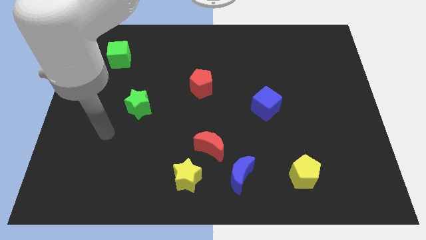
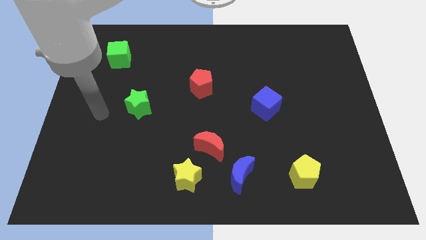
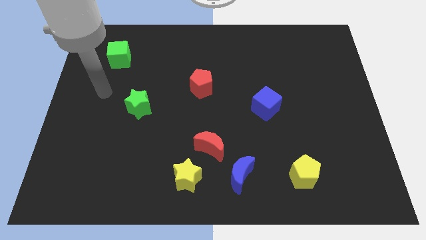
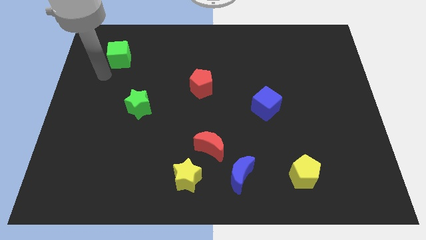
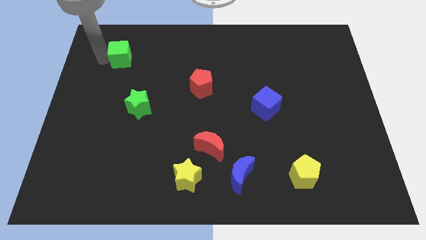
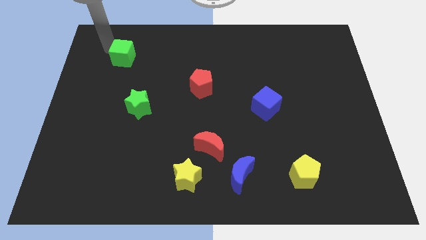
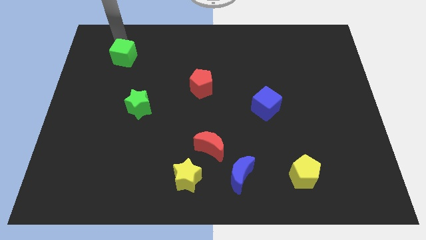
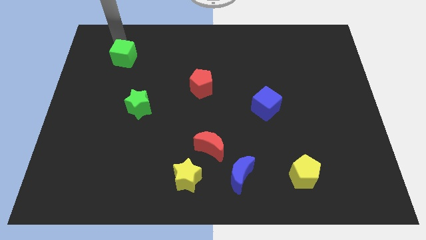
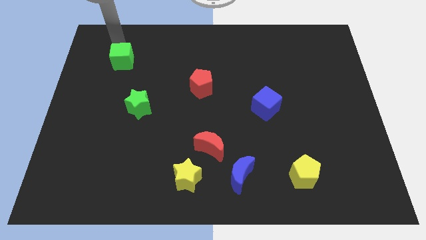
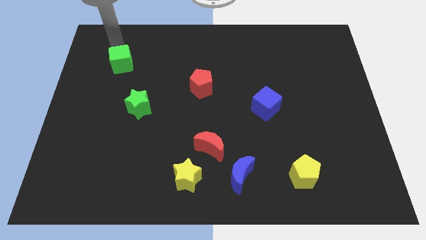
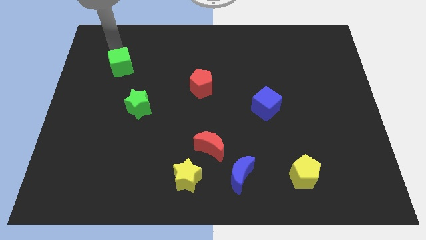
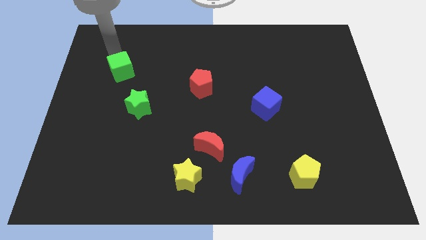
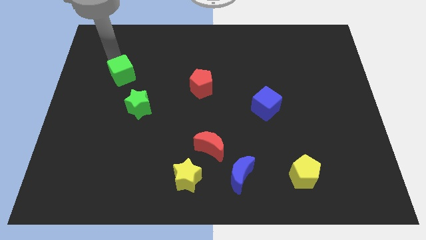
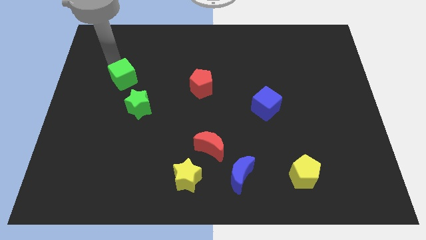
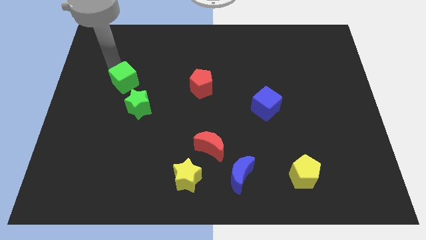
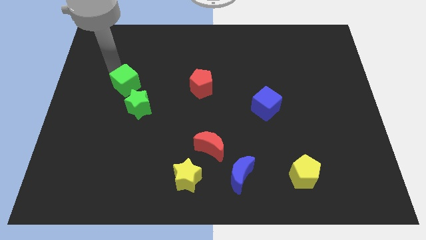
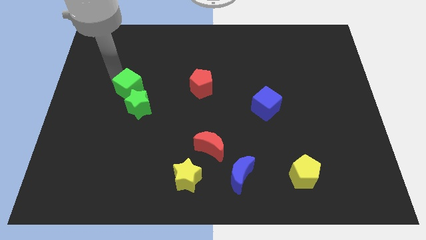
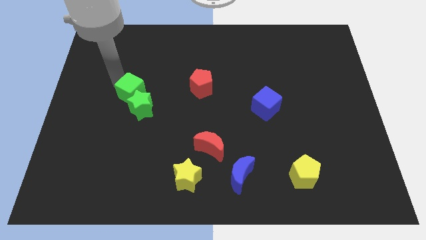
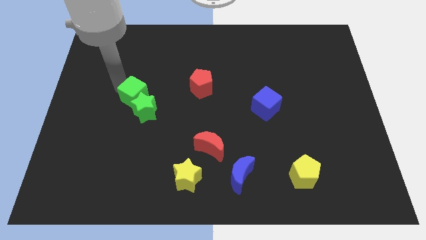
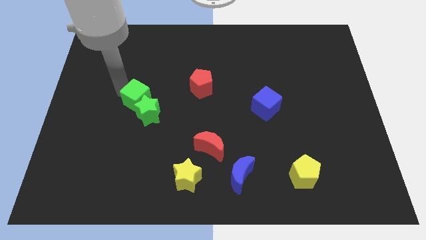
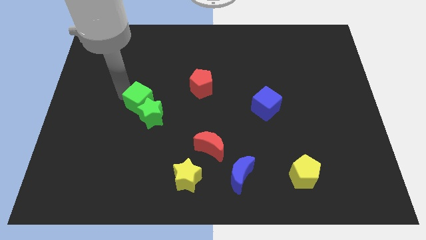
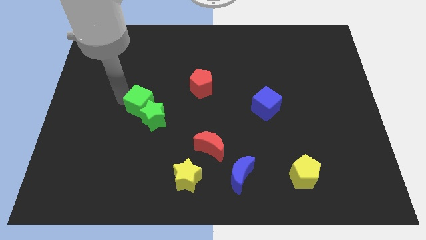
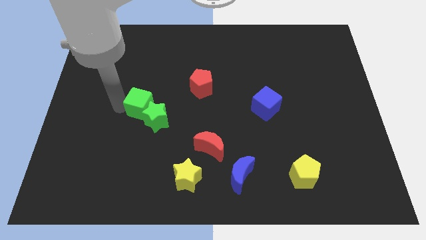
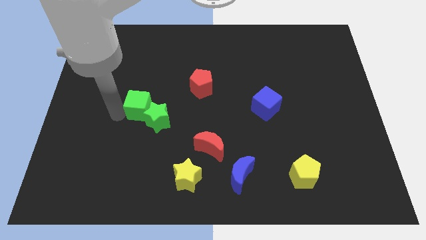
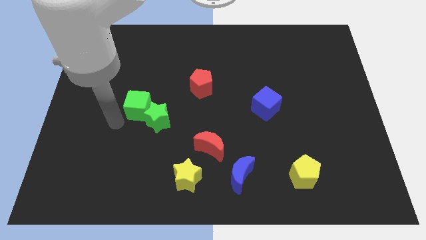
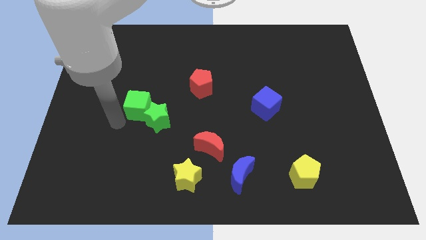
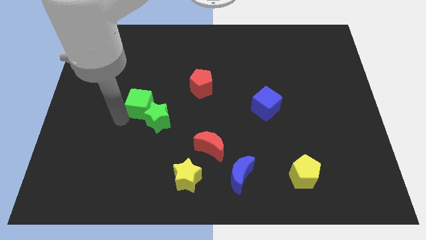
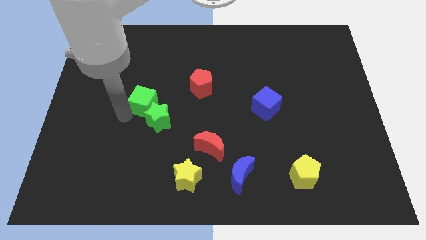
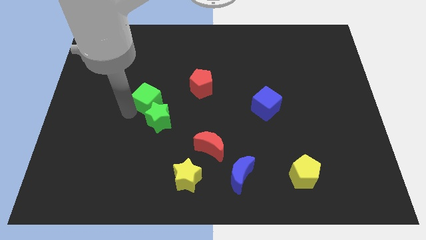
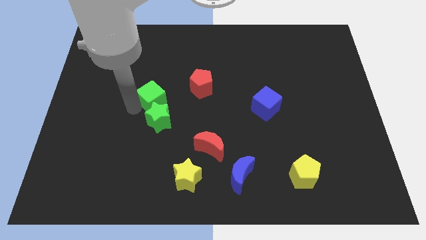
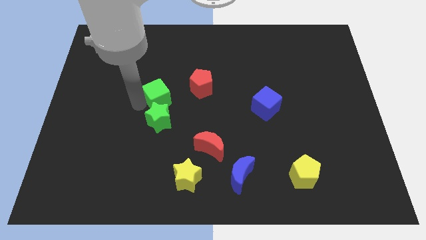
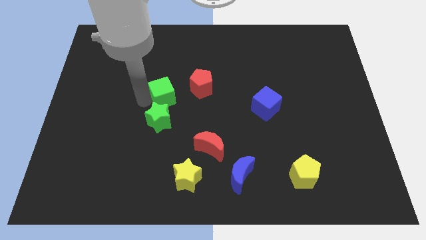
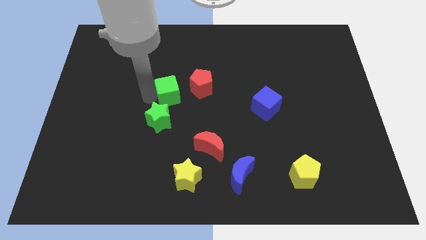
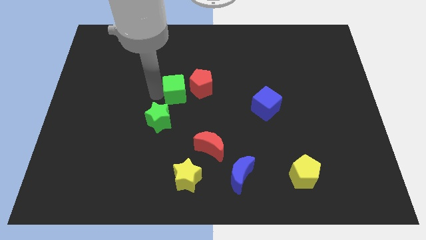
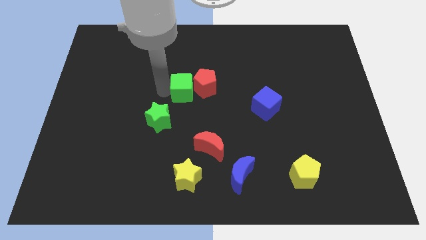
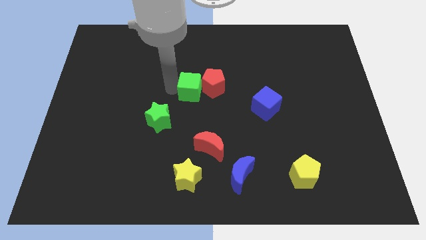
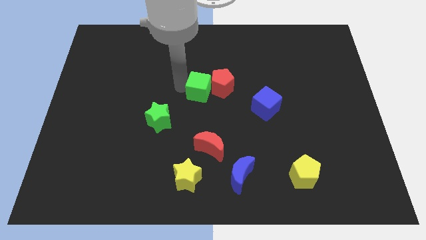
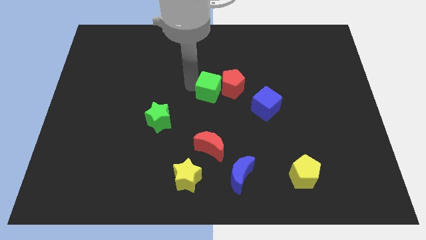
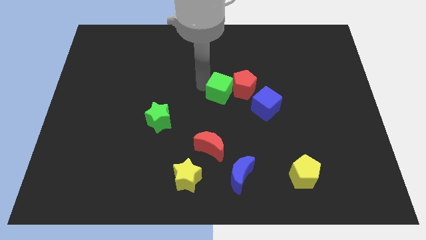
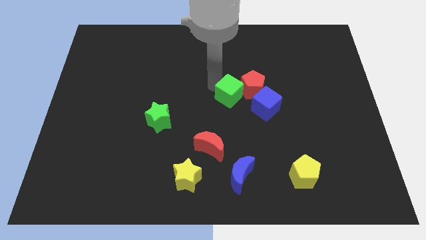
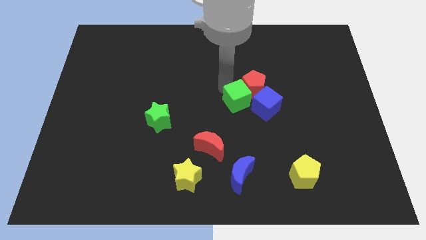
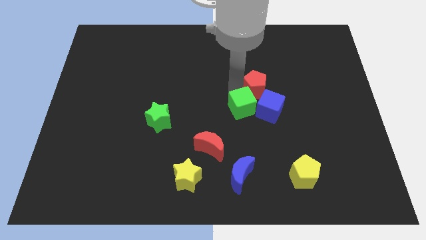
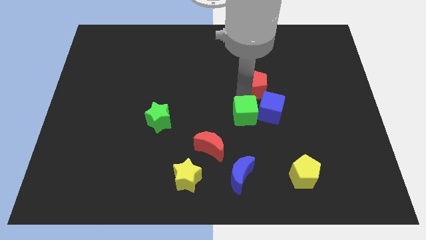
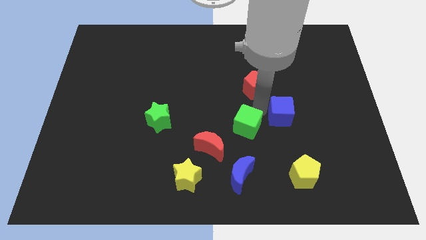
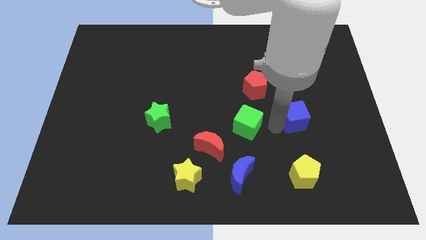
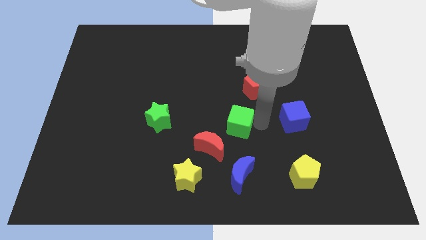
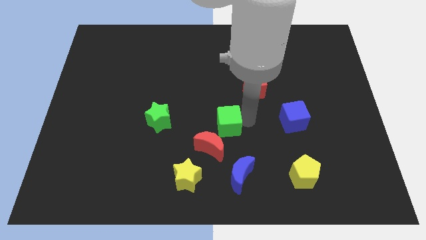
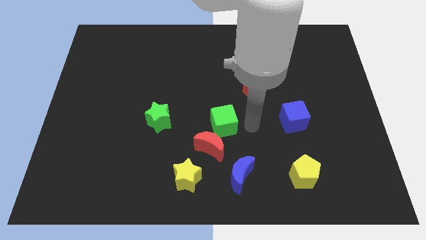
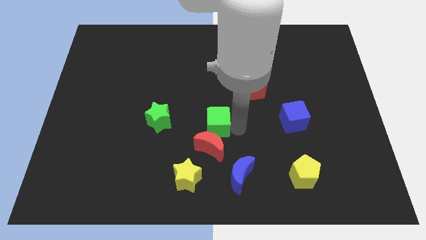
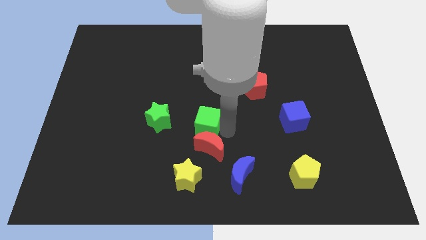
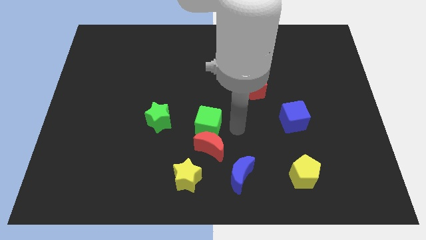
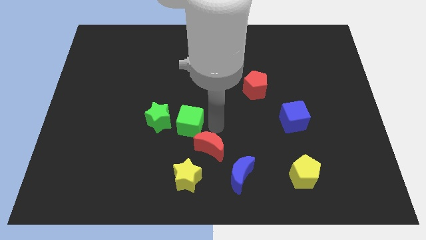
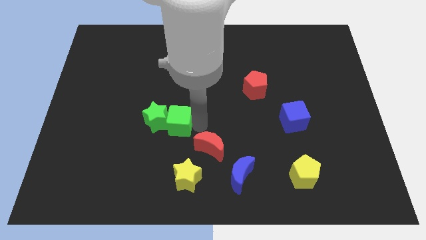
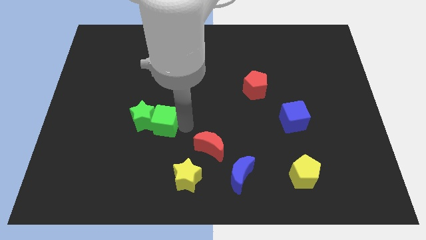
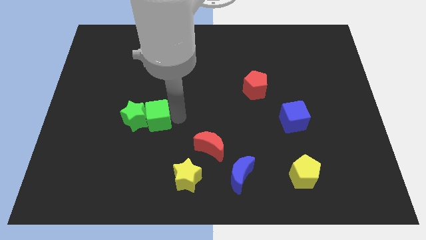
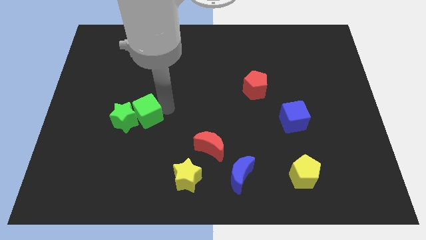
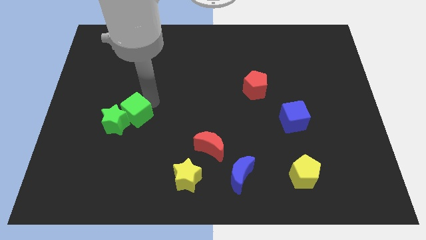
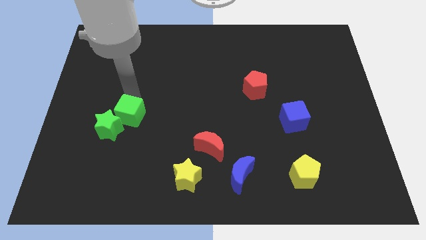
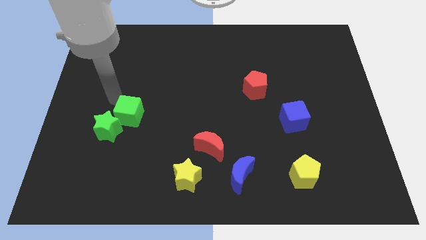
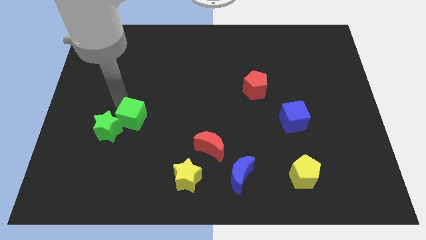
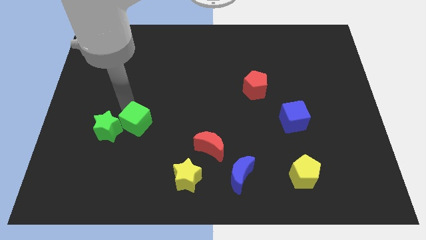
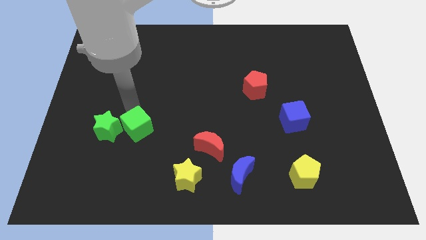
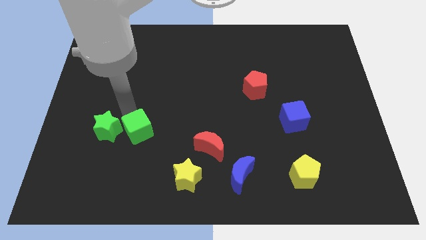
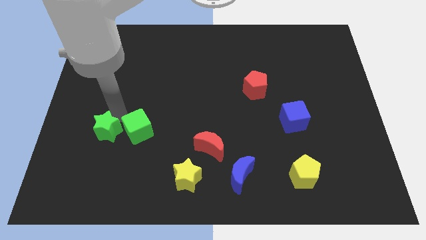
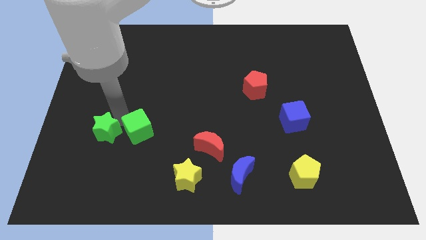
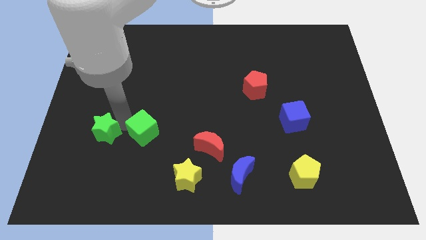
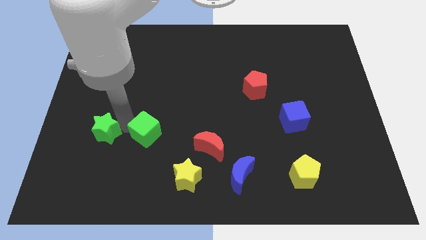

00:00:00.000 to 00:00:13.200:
move the green cube left of the red moon

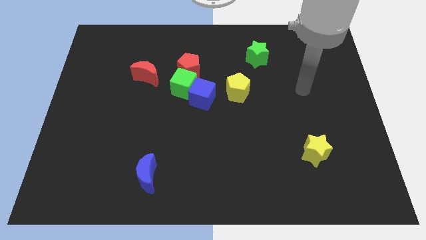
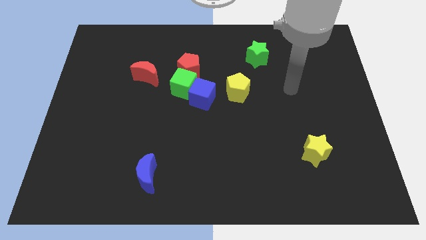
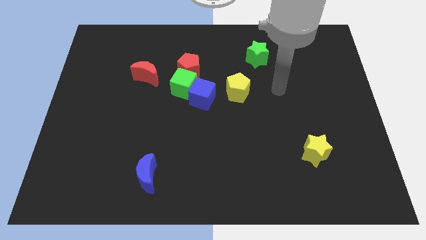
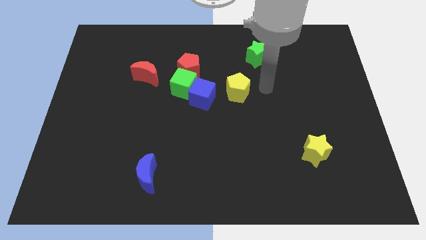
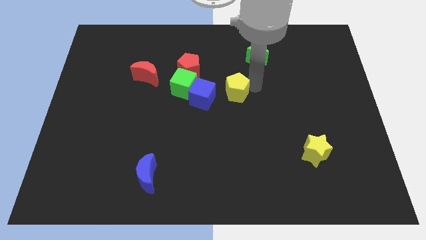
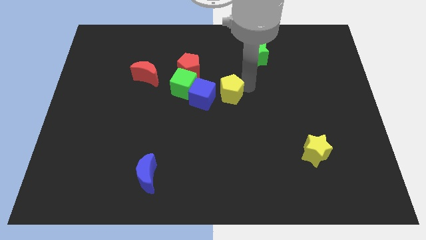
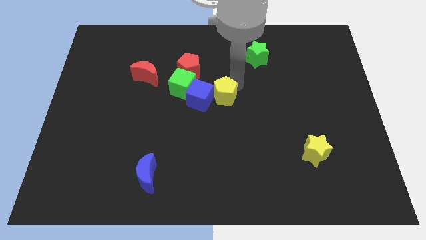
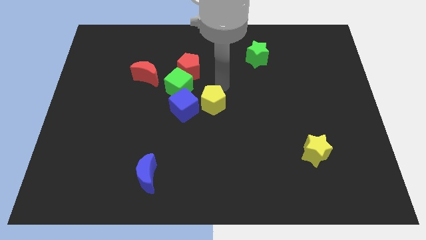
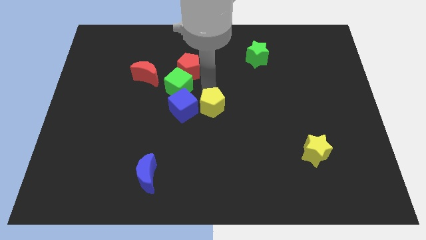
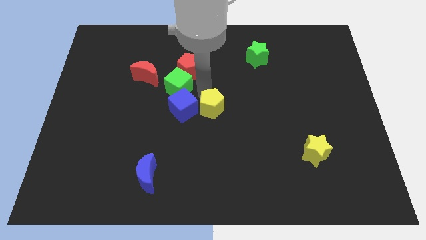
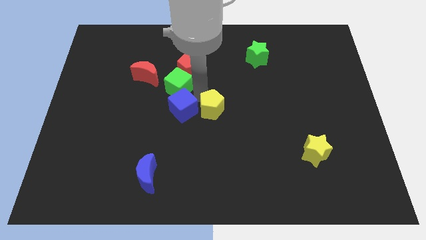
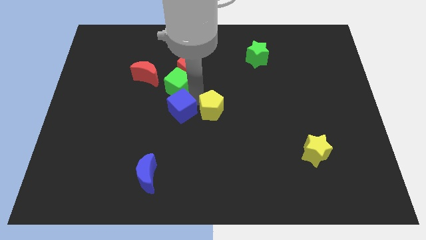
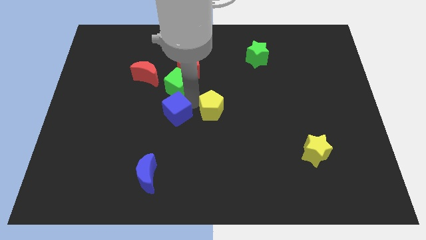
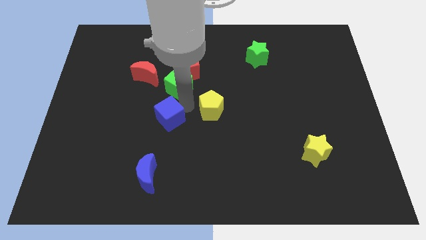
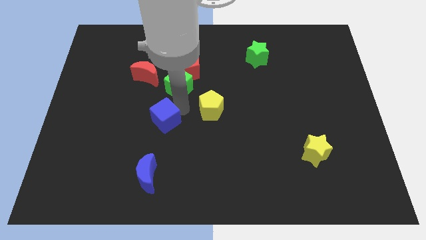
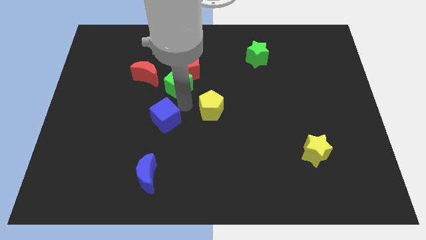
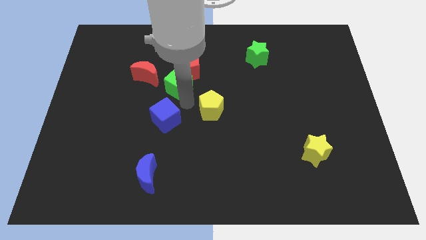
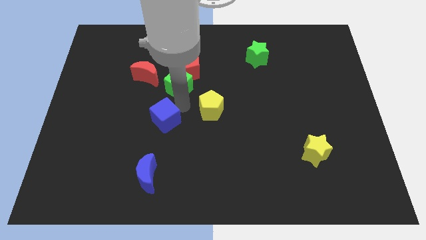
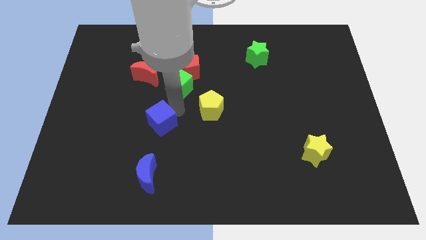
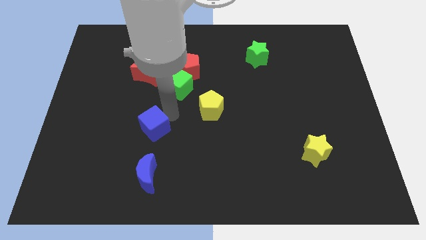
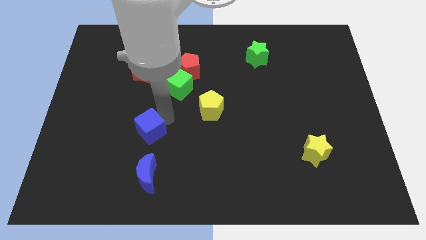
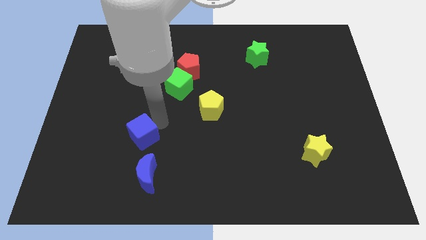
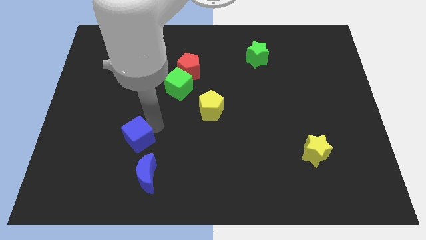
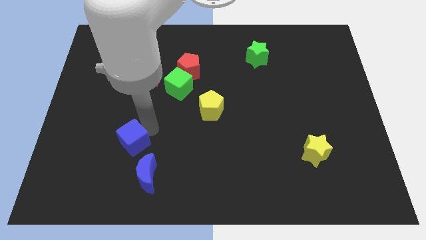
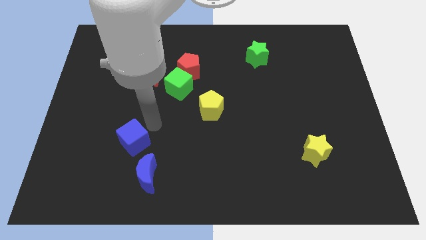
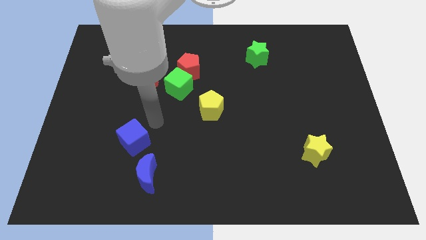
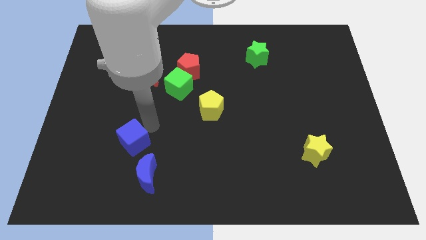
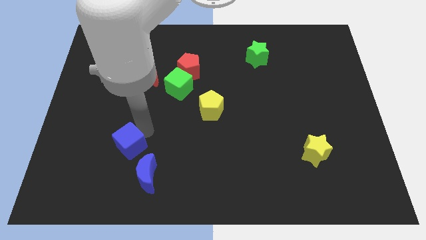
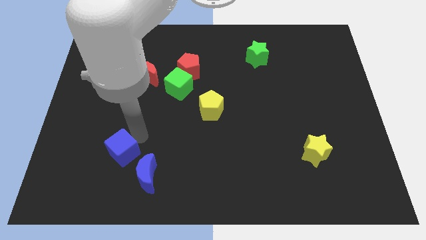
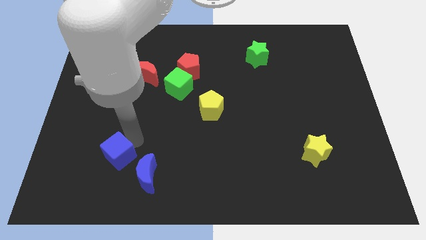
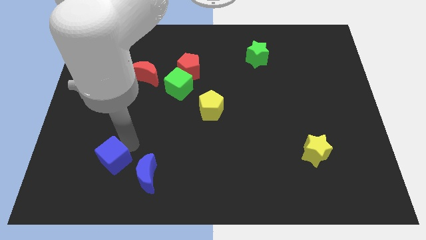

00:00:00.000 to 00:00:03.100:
slide the blue cube left of the blue moon
